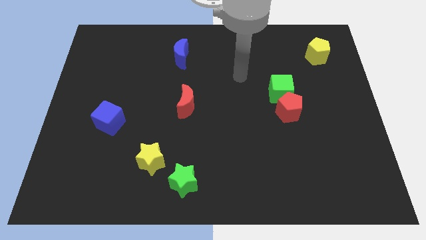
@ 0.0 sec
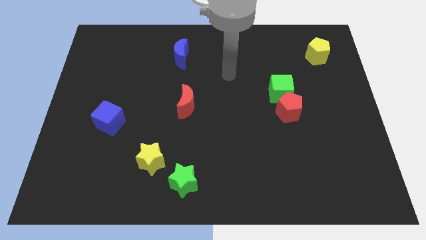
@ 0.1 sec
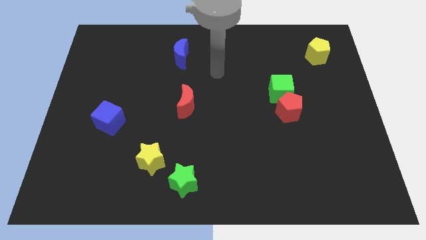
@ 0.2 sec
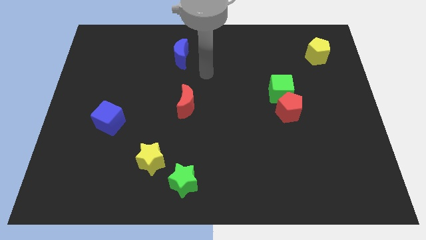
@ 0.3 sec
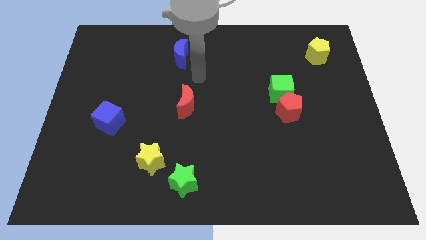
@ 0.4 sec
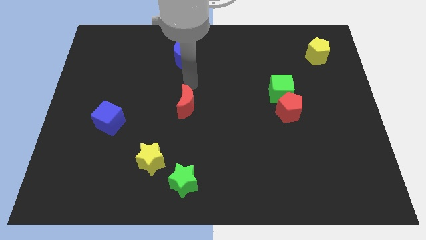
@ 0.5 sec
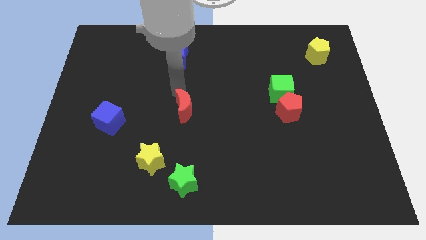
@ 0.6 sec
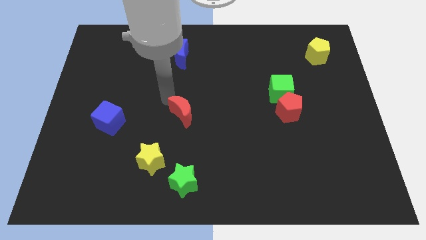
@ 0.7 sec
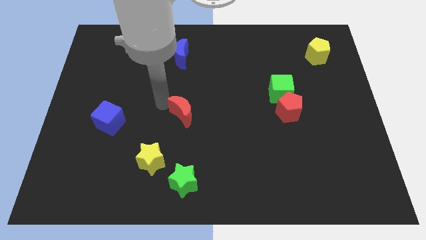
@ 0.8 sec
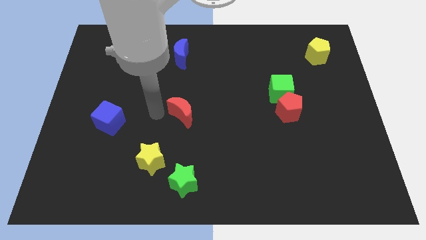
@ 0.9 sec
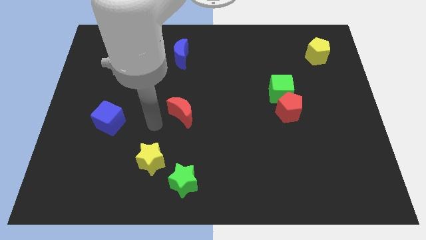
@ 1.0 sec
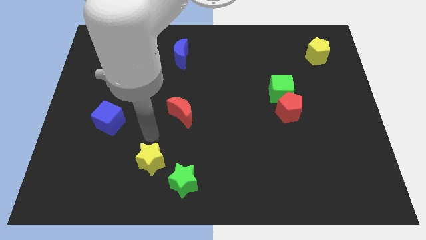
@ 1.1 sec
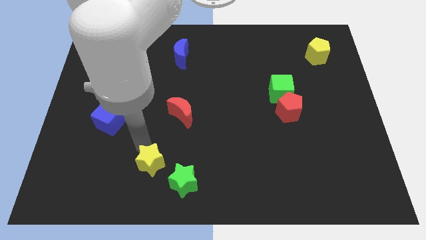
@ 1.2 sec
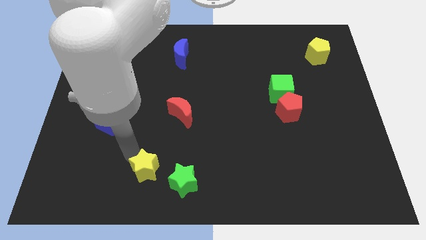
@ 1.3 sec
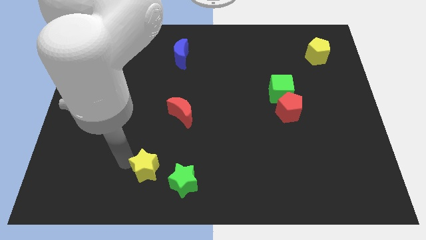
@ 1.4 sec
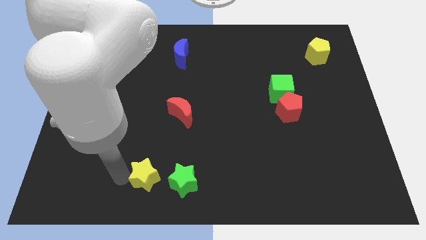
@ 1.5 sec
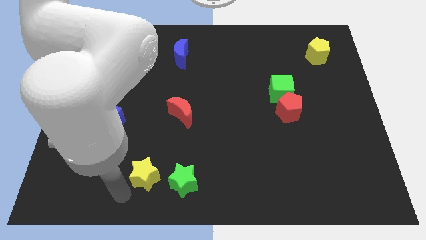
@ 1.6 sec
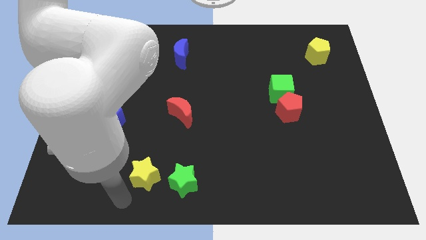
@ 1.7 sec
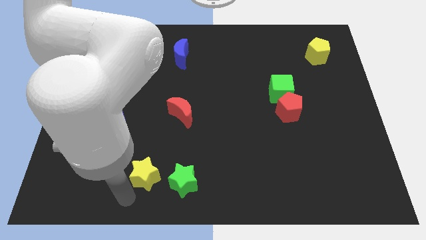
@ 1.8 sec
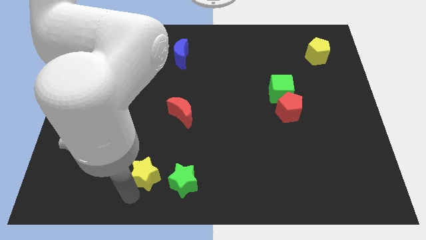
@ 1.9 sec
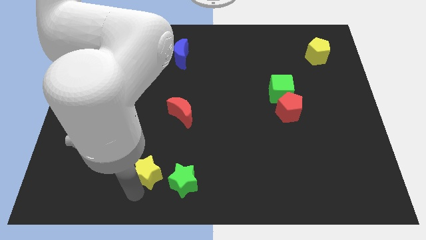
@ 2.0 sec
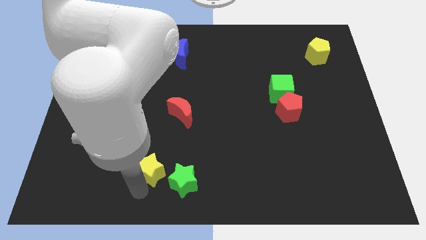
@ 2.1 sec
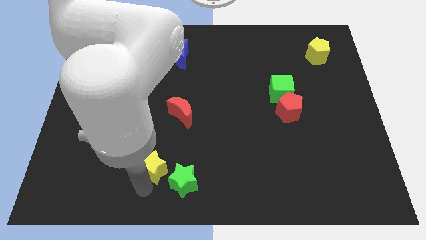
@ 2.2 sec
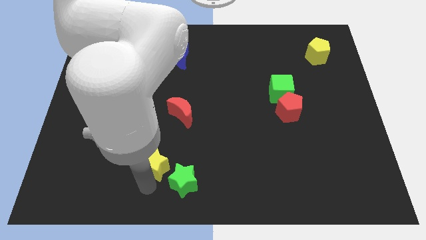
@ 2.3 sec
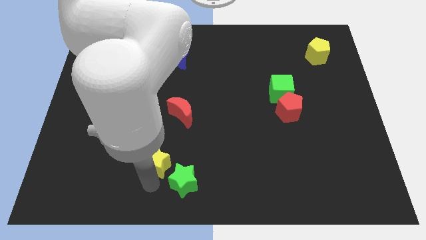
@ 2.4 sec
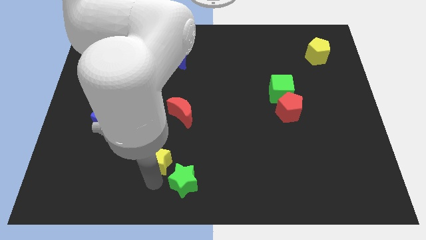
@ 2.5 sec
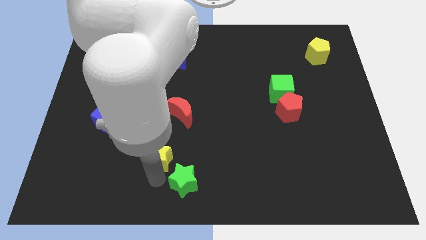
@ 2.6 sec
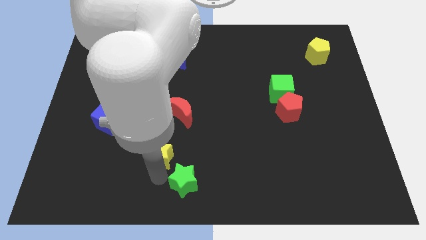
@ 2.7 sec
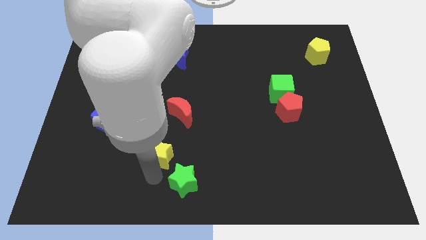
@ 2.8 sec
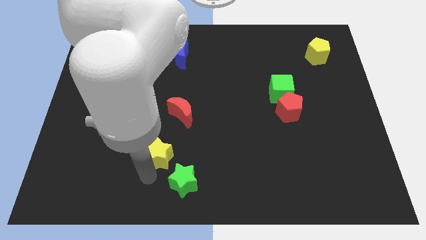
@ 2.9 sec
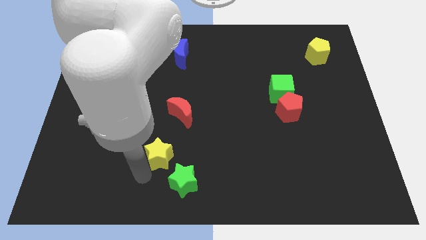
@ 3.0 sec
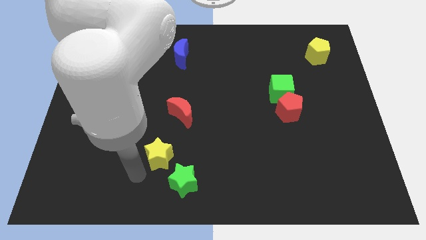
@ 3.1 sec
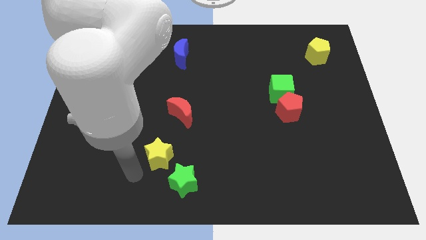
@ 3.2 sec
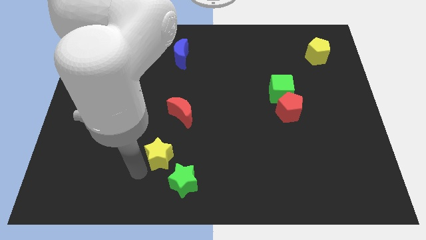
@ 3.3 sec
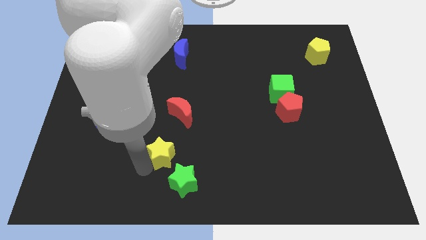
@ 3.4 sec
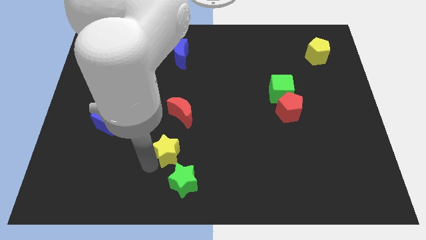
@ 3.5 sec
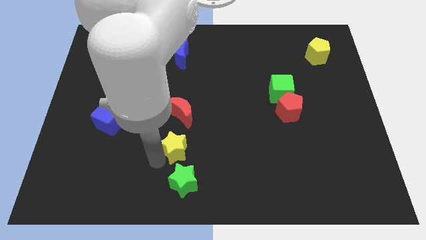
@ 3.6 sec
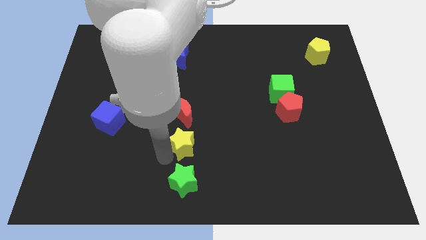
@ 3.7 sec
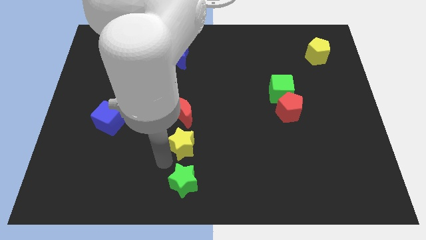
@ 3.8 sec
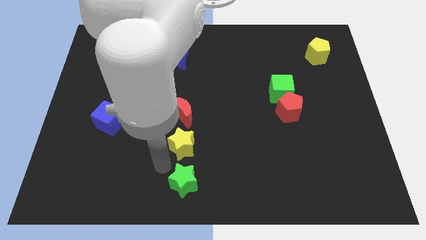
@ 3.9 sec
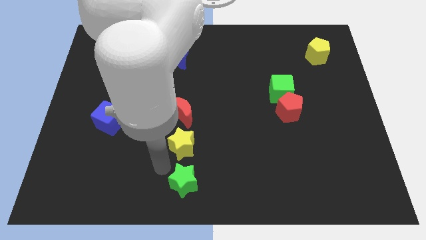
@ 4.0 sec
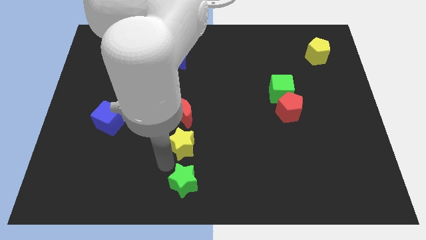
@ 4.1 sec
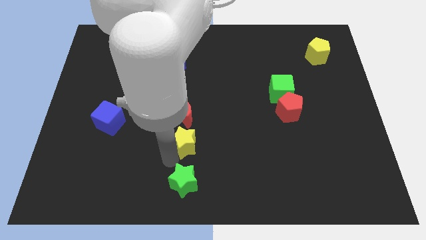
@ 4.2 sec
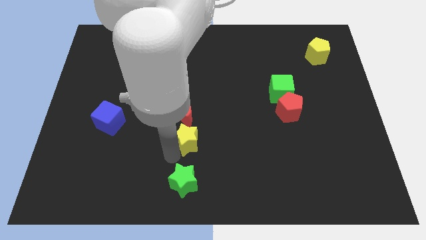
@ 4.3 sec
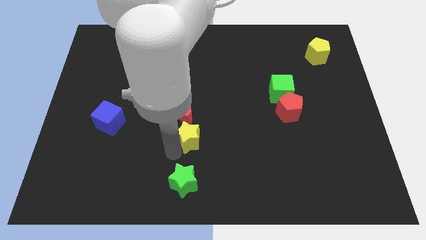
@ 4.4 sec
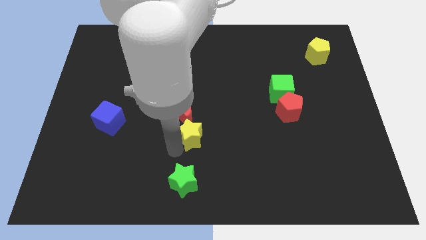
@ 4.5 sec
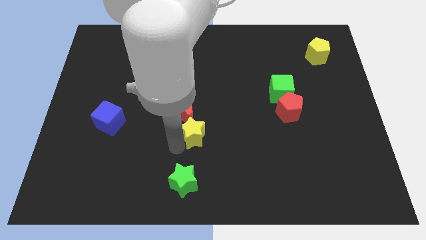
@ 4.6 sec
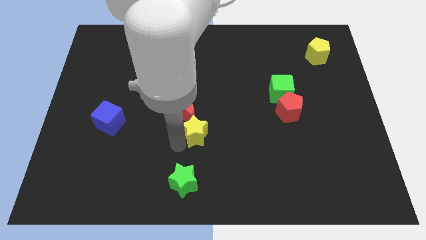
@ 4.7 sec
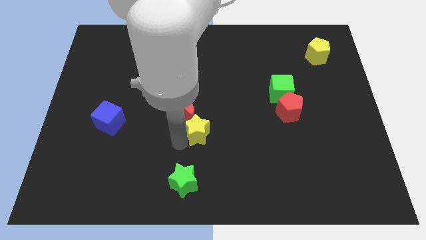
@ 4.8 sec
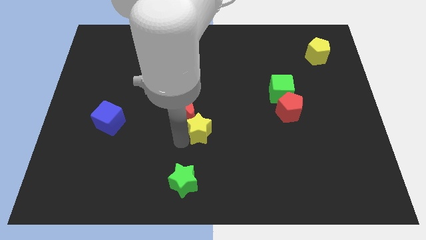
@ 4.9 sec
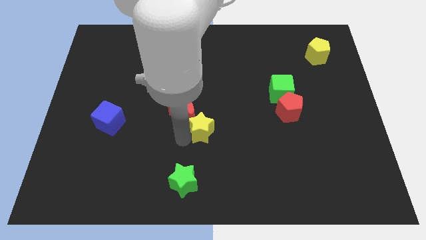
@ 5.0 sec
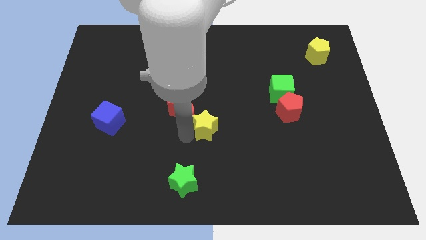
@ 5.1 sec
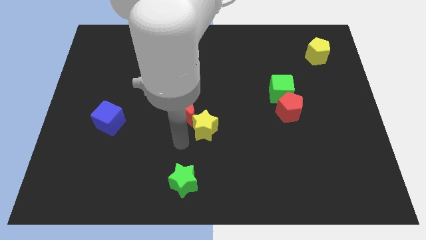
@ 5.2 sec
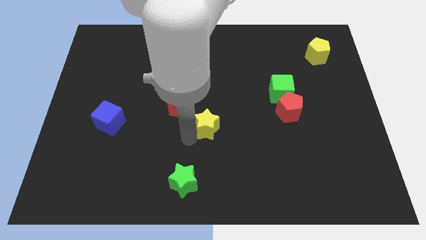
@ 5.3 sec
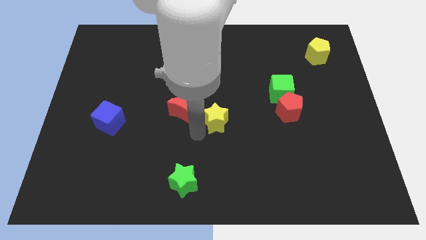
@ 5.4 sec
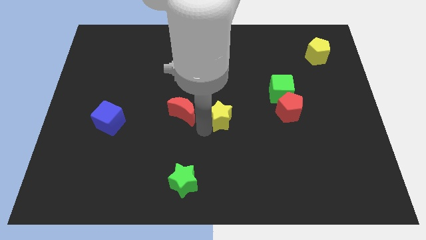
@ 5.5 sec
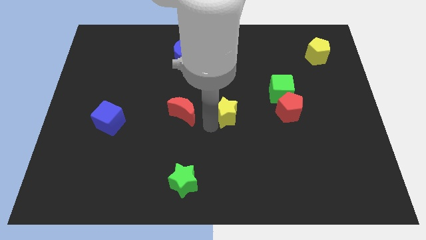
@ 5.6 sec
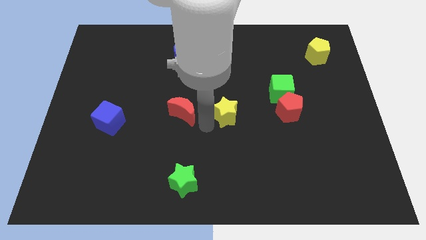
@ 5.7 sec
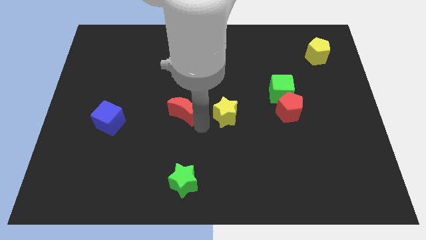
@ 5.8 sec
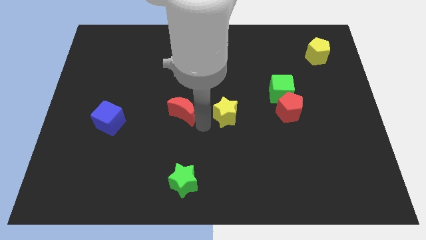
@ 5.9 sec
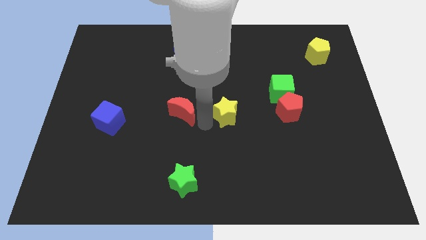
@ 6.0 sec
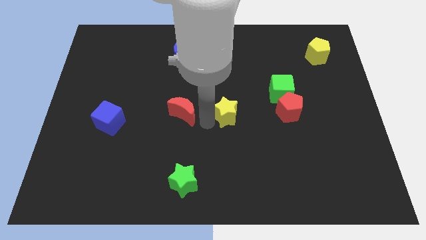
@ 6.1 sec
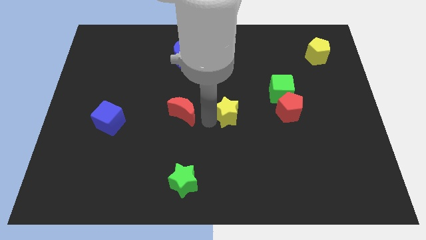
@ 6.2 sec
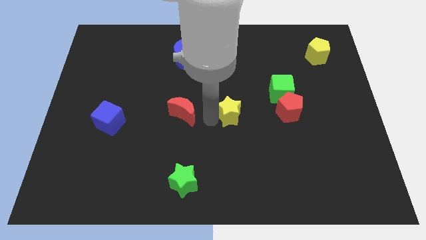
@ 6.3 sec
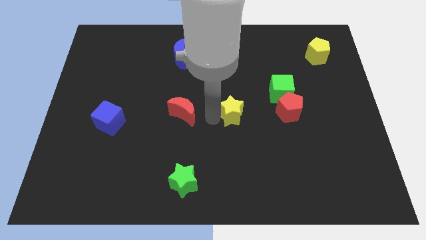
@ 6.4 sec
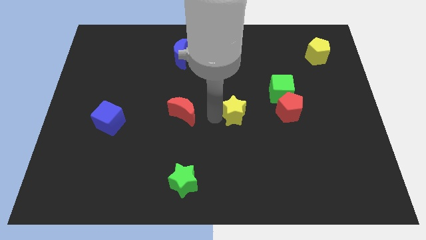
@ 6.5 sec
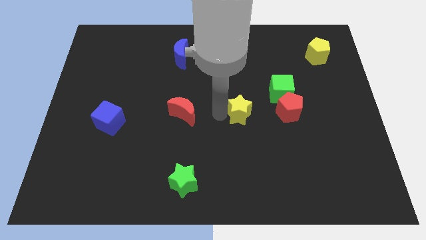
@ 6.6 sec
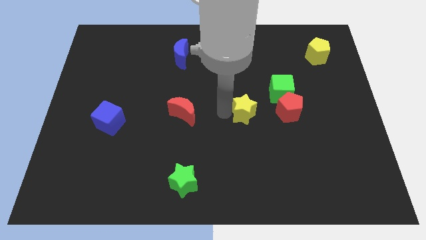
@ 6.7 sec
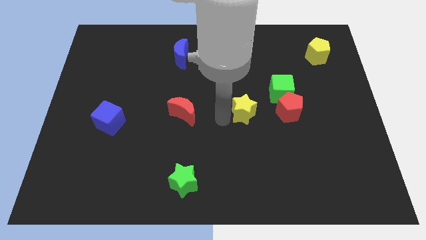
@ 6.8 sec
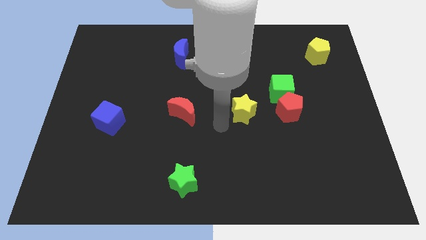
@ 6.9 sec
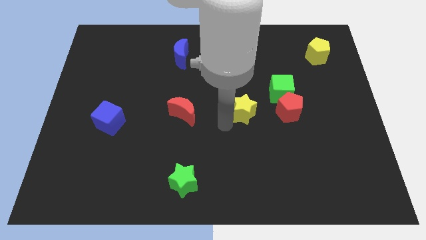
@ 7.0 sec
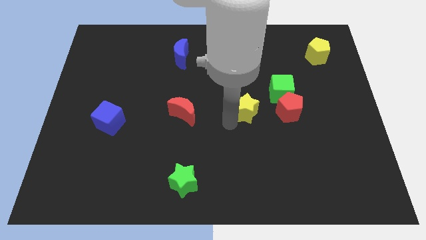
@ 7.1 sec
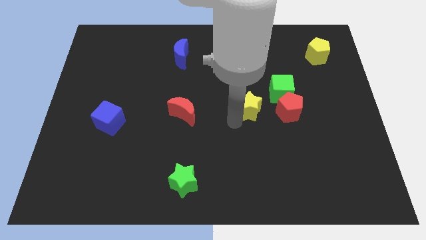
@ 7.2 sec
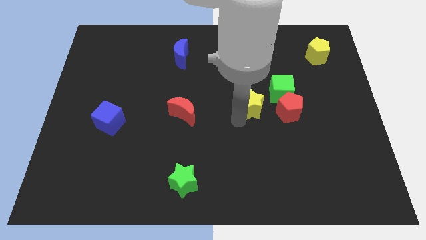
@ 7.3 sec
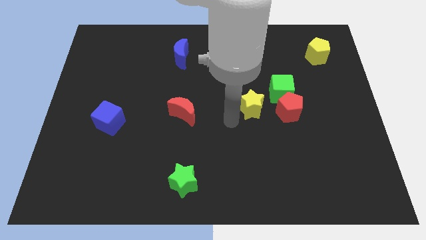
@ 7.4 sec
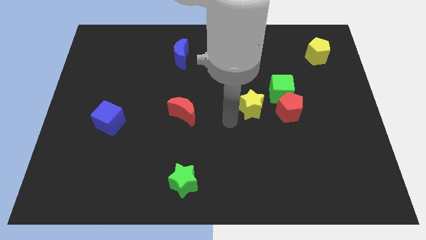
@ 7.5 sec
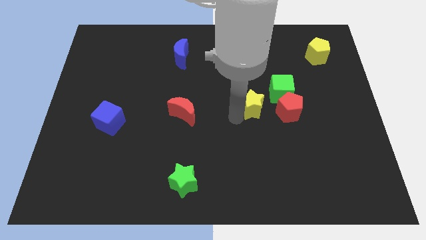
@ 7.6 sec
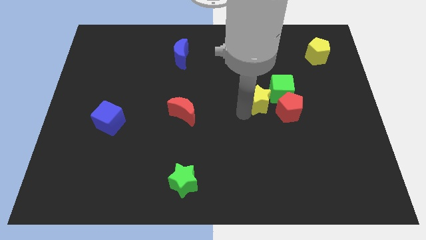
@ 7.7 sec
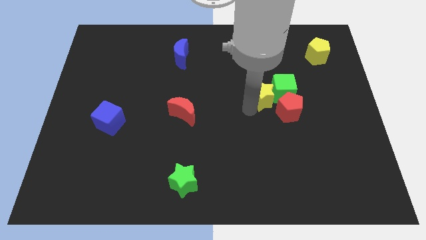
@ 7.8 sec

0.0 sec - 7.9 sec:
slide the yellow star towards the green cube

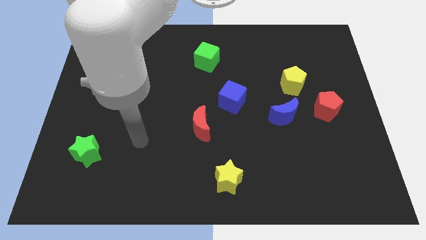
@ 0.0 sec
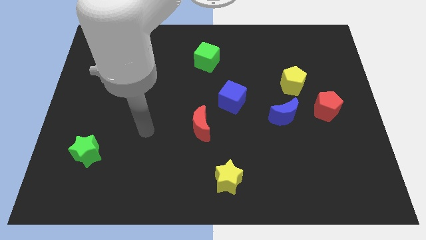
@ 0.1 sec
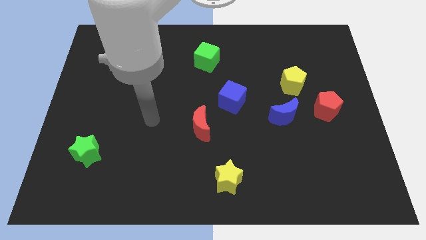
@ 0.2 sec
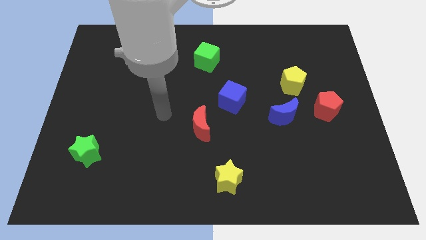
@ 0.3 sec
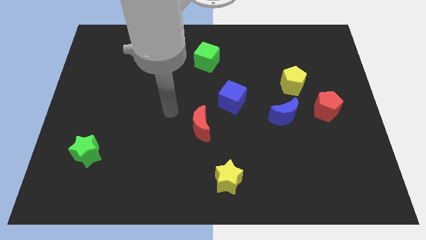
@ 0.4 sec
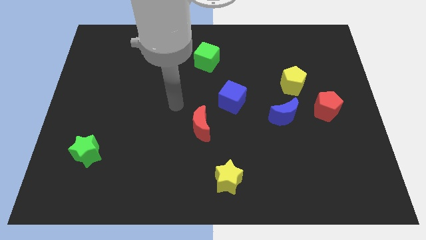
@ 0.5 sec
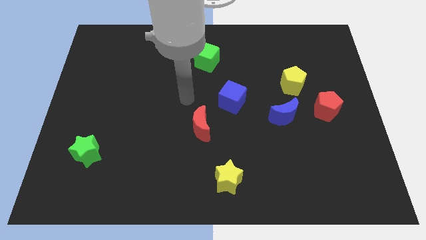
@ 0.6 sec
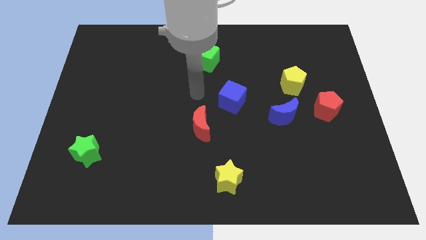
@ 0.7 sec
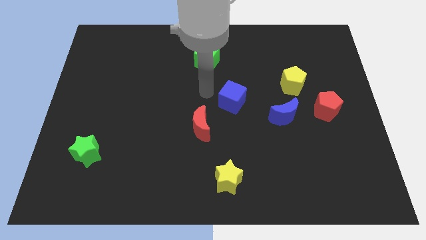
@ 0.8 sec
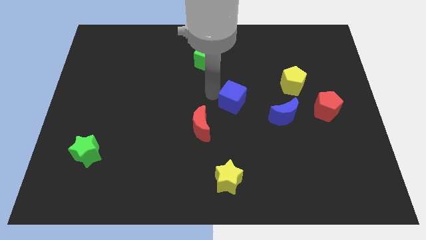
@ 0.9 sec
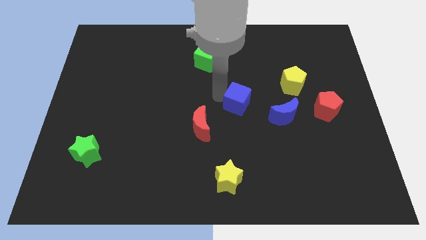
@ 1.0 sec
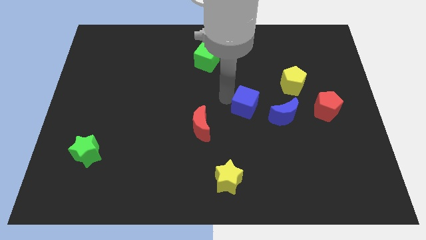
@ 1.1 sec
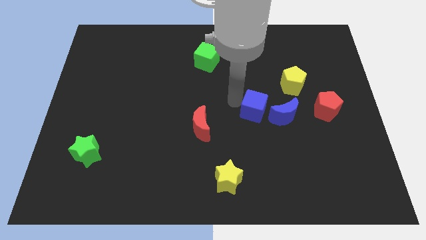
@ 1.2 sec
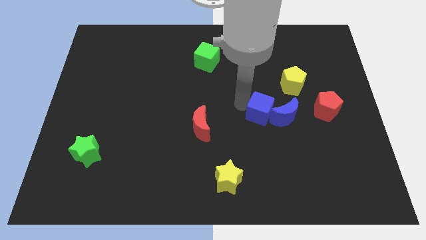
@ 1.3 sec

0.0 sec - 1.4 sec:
push the blue cube next to the blue moon
